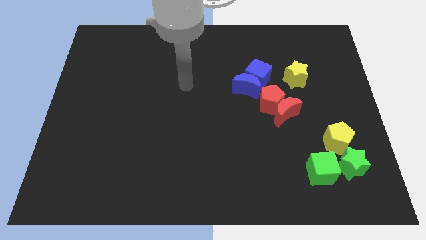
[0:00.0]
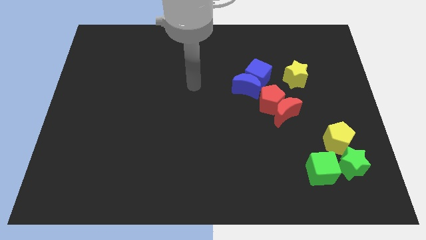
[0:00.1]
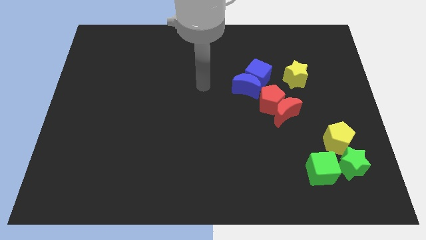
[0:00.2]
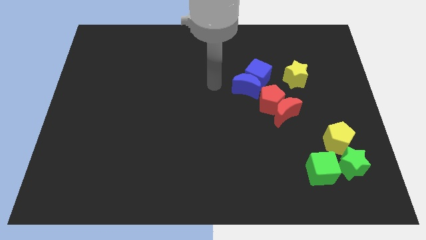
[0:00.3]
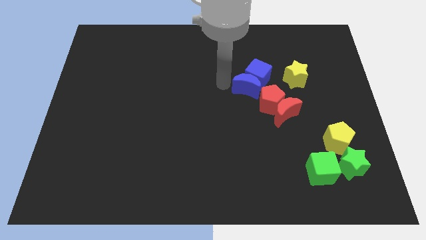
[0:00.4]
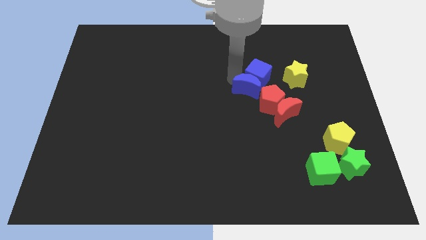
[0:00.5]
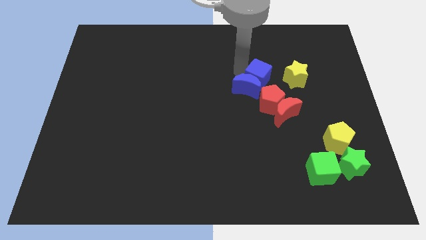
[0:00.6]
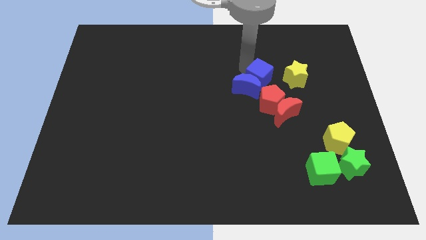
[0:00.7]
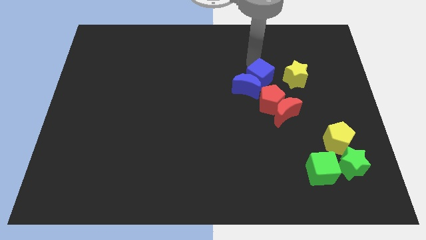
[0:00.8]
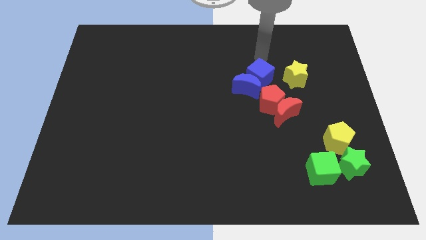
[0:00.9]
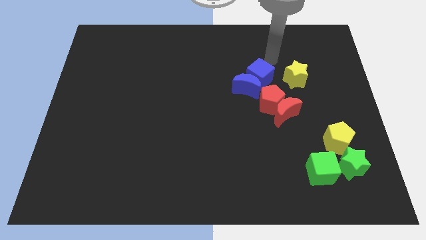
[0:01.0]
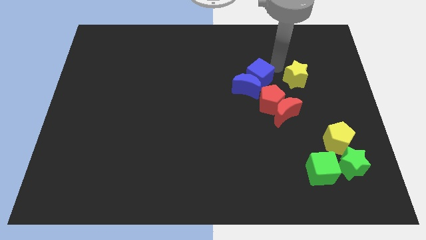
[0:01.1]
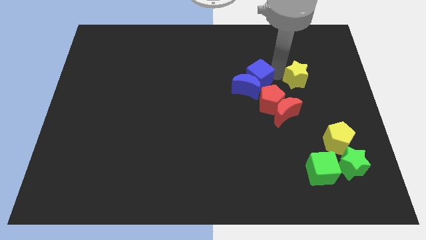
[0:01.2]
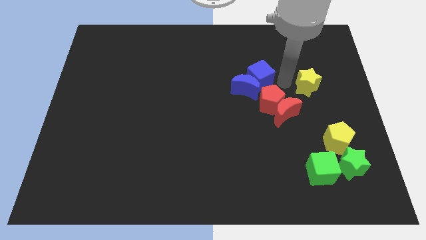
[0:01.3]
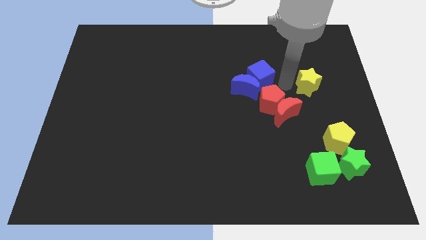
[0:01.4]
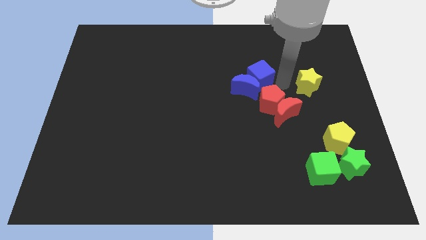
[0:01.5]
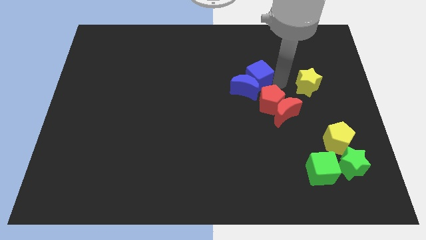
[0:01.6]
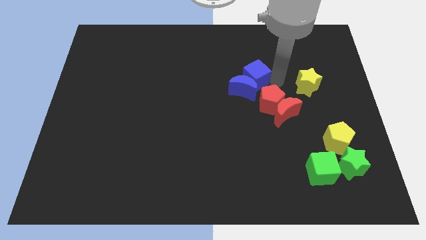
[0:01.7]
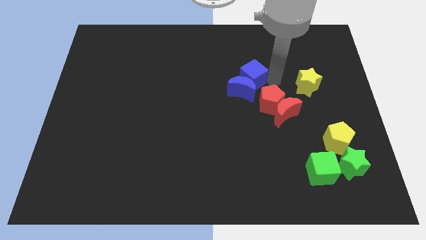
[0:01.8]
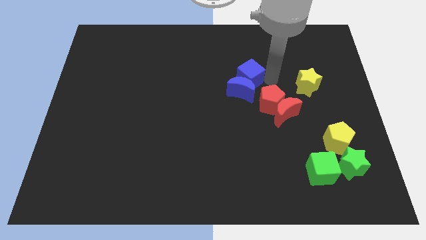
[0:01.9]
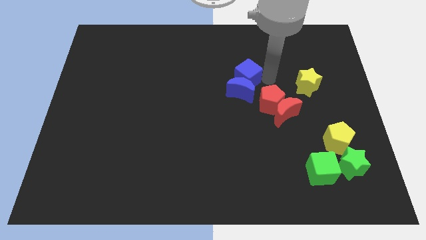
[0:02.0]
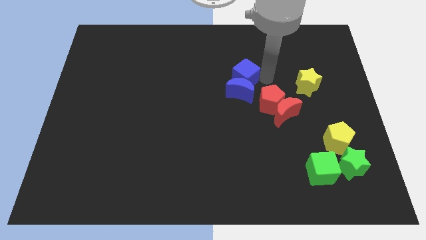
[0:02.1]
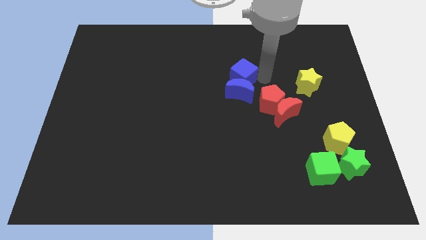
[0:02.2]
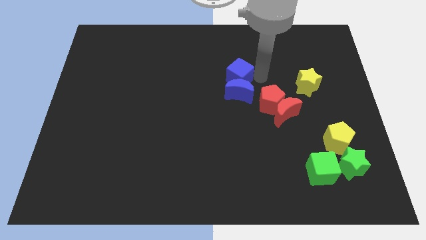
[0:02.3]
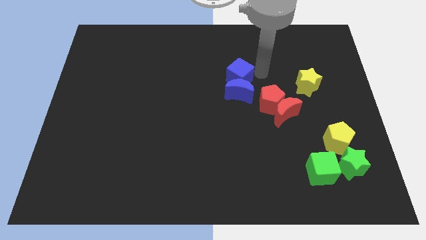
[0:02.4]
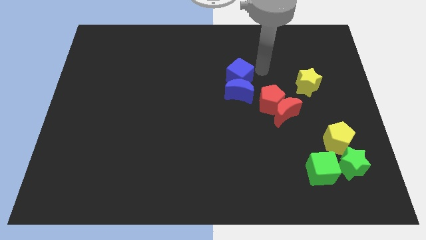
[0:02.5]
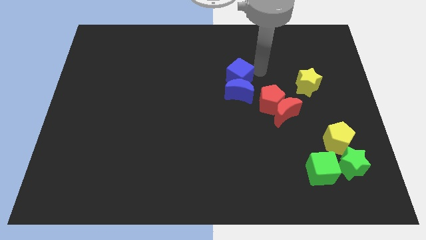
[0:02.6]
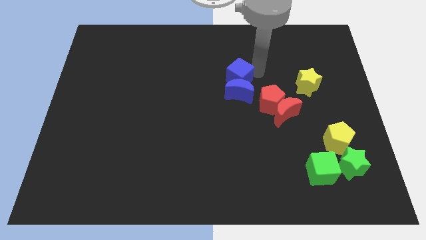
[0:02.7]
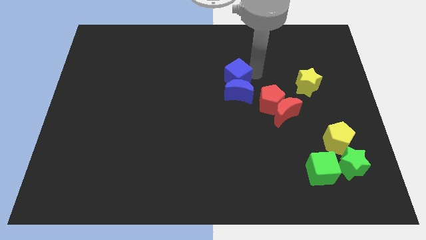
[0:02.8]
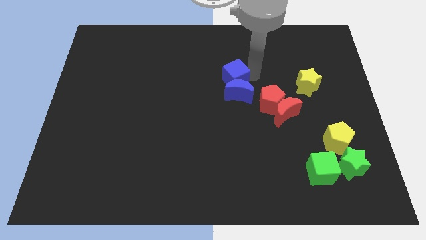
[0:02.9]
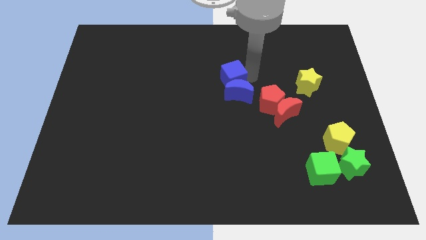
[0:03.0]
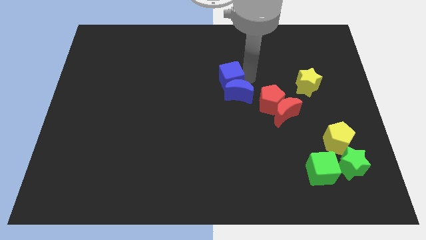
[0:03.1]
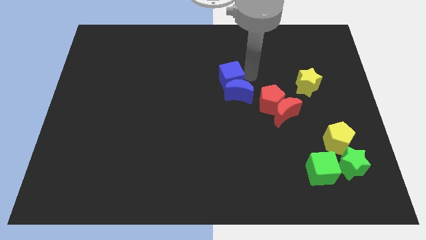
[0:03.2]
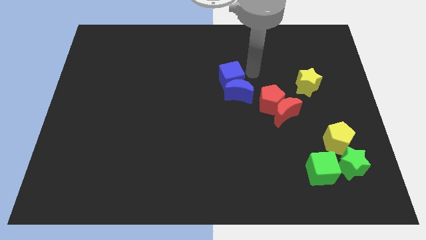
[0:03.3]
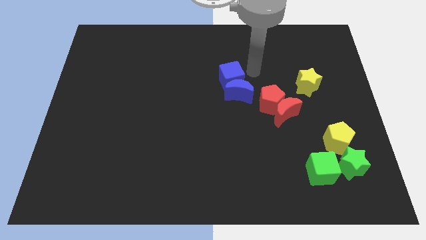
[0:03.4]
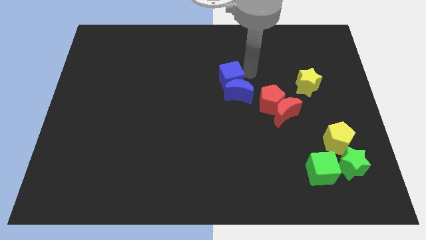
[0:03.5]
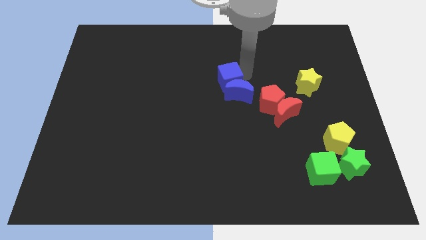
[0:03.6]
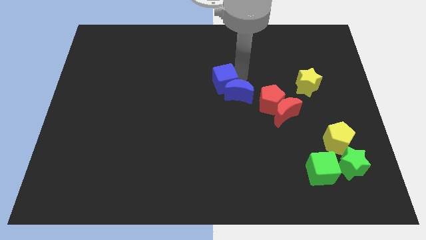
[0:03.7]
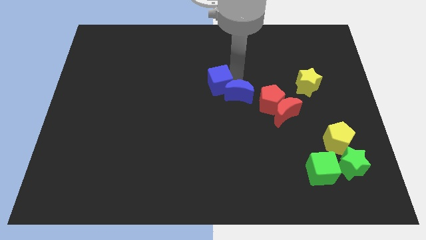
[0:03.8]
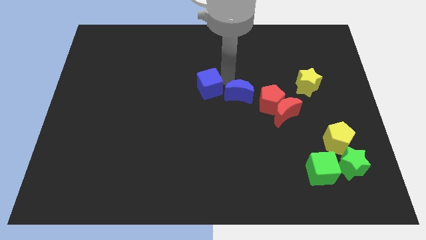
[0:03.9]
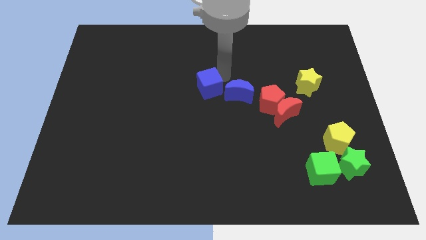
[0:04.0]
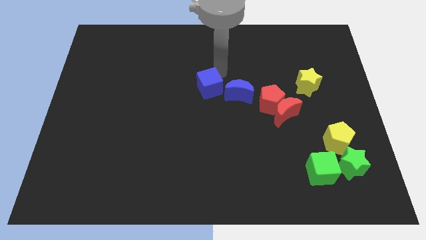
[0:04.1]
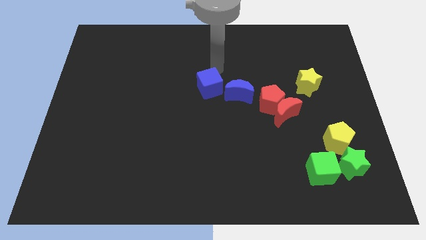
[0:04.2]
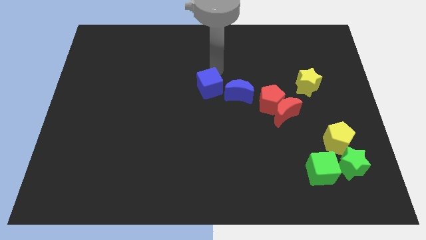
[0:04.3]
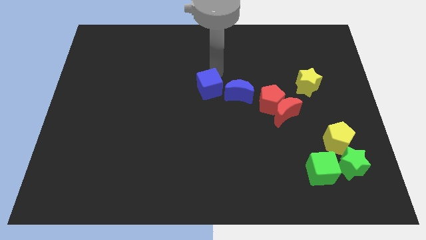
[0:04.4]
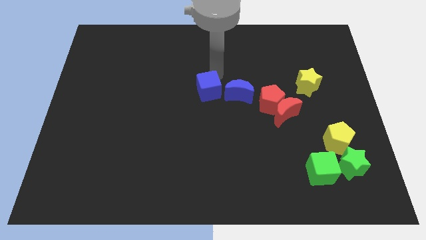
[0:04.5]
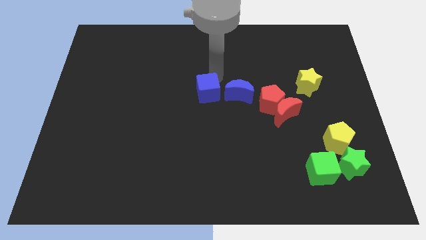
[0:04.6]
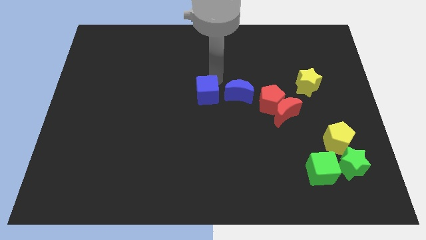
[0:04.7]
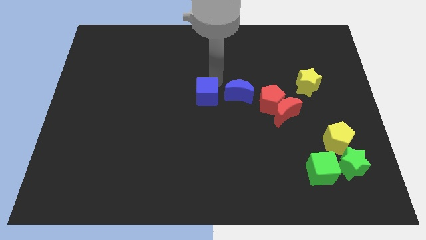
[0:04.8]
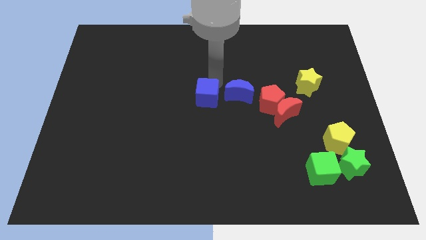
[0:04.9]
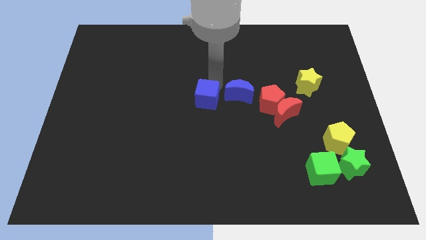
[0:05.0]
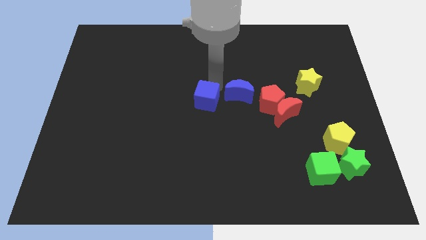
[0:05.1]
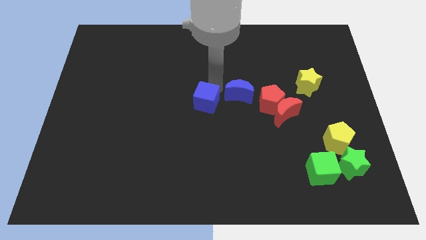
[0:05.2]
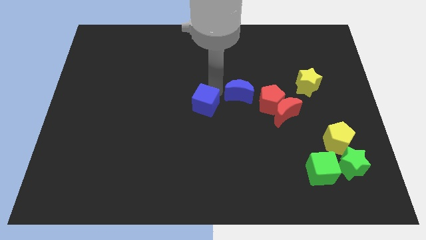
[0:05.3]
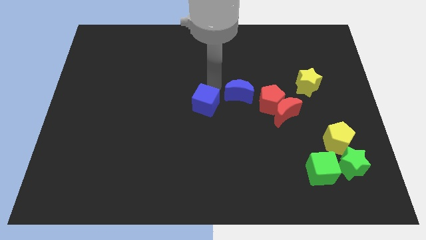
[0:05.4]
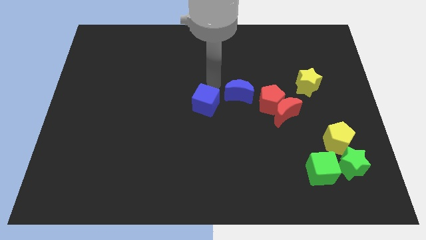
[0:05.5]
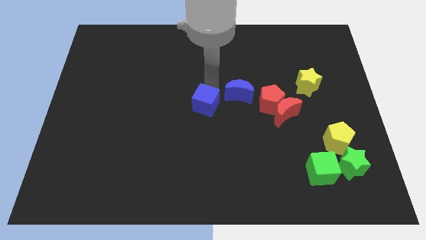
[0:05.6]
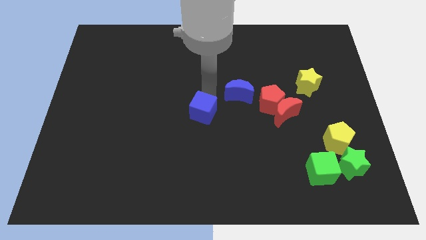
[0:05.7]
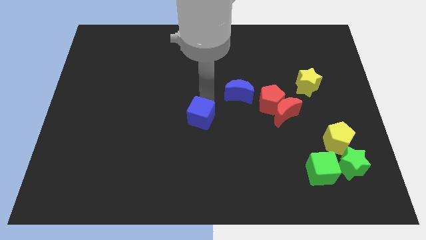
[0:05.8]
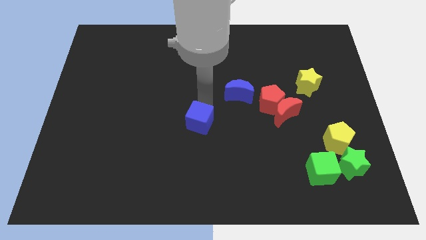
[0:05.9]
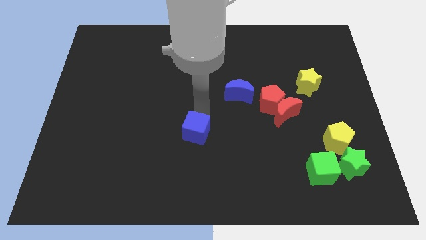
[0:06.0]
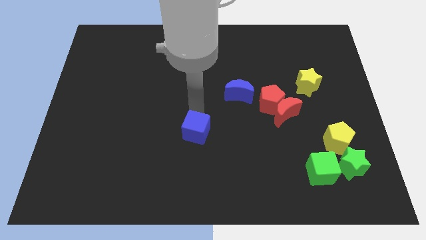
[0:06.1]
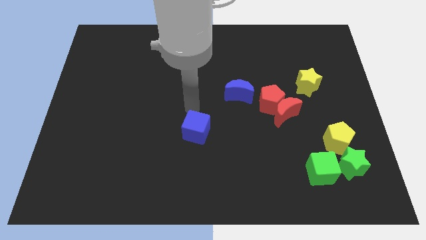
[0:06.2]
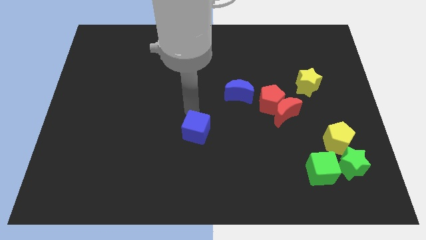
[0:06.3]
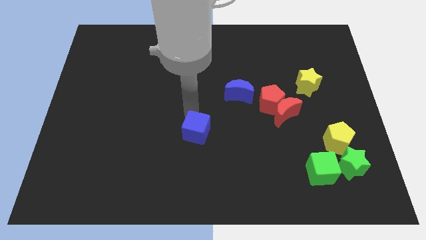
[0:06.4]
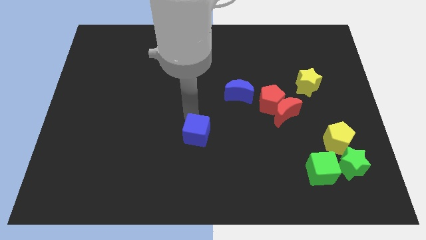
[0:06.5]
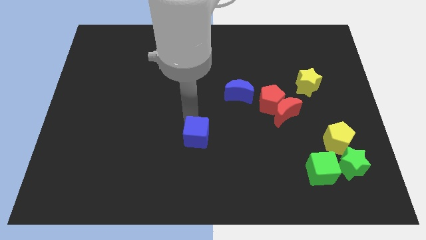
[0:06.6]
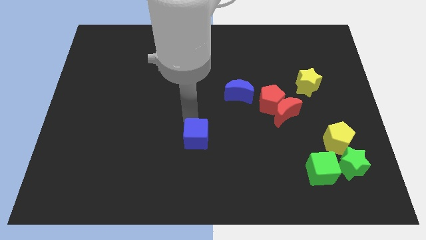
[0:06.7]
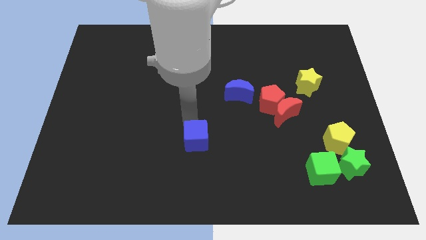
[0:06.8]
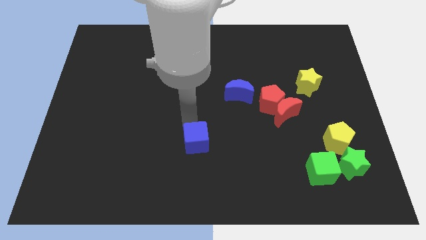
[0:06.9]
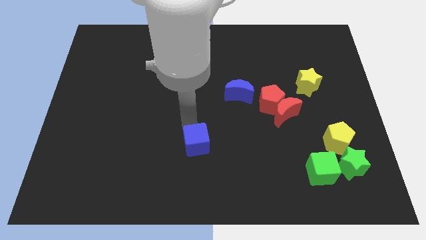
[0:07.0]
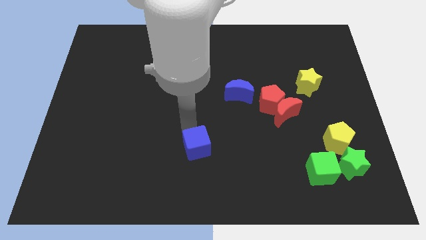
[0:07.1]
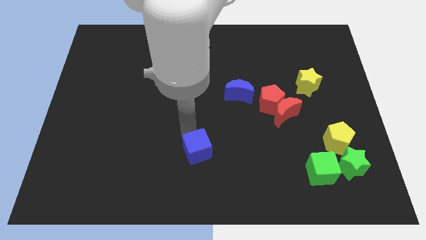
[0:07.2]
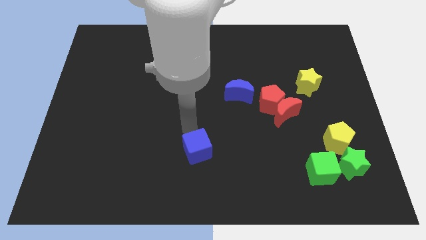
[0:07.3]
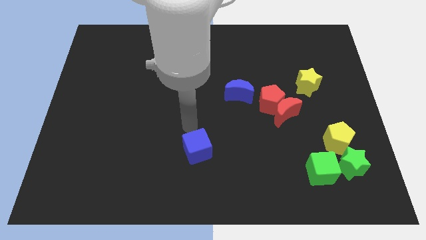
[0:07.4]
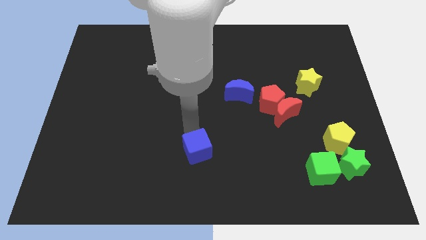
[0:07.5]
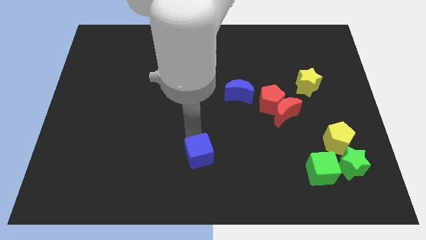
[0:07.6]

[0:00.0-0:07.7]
slide the blue cube to the bottom side
